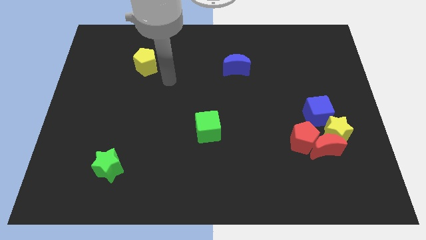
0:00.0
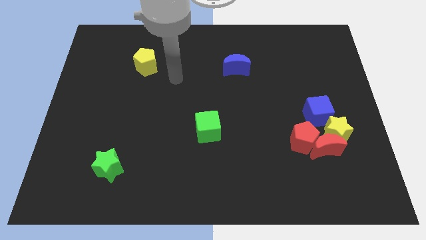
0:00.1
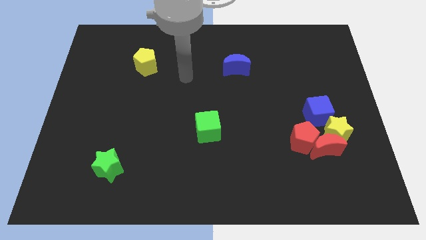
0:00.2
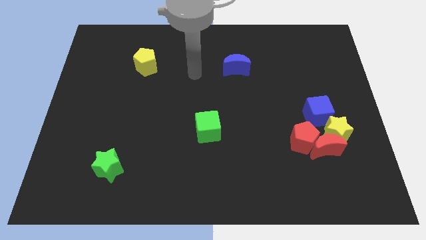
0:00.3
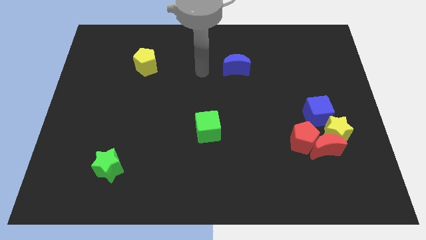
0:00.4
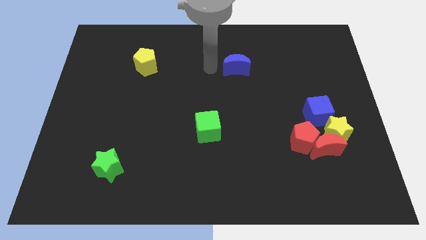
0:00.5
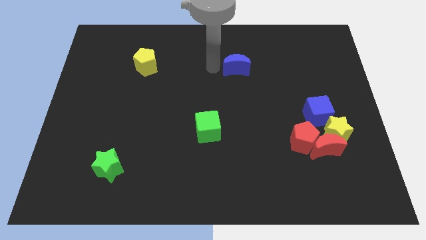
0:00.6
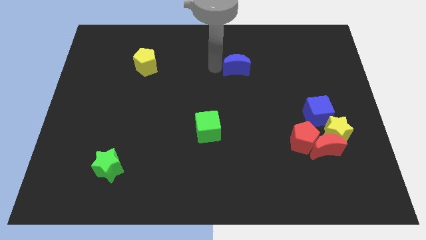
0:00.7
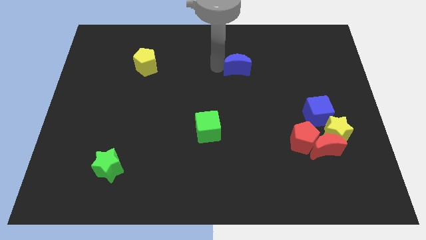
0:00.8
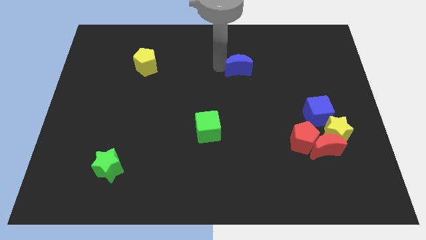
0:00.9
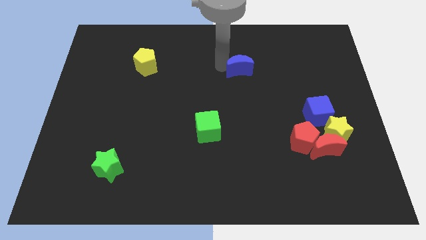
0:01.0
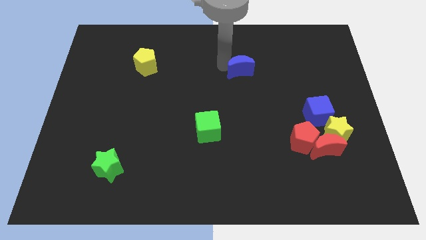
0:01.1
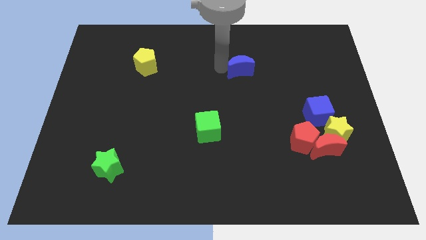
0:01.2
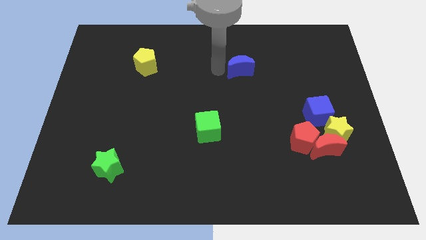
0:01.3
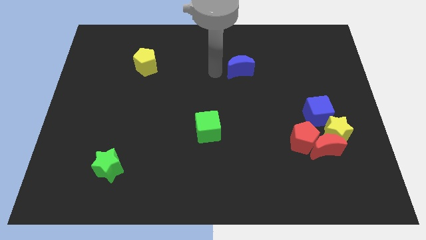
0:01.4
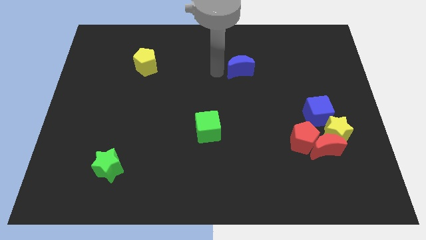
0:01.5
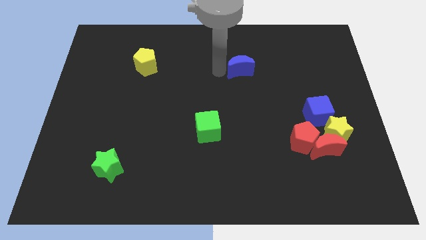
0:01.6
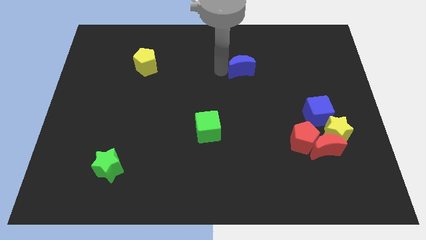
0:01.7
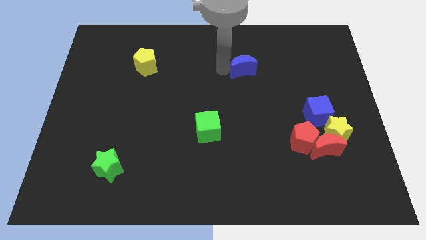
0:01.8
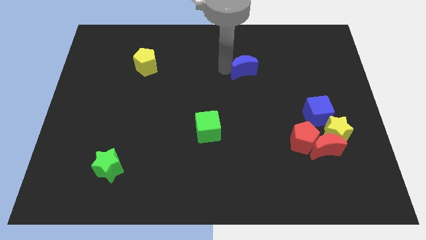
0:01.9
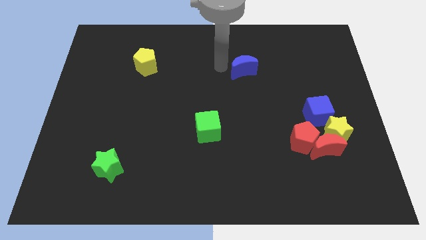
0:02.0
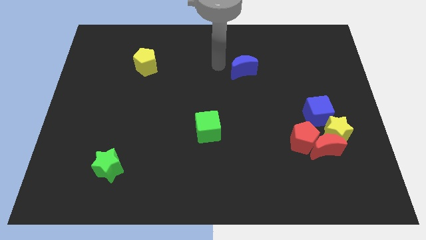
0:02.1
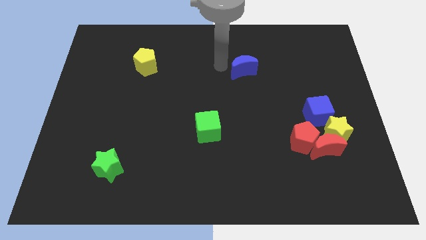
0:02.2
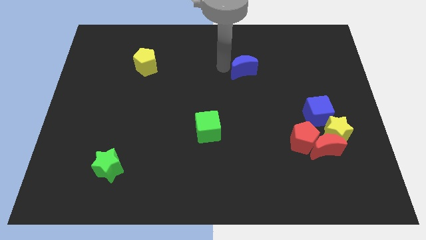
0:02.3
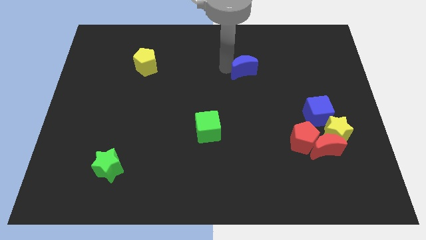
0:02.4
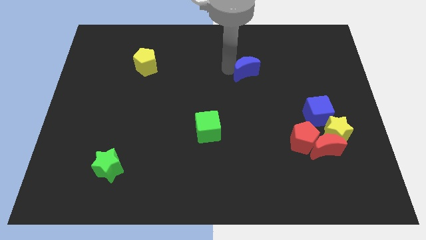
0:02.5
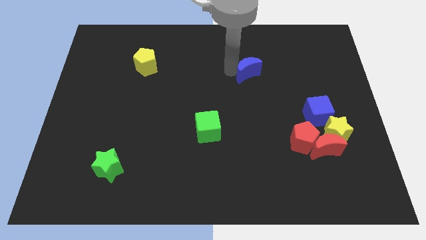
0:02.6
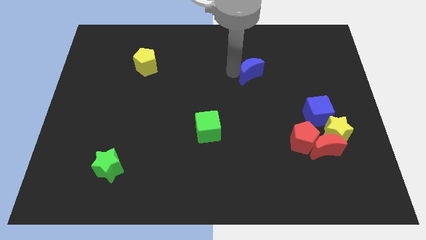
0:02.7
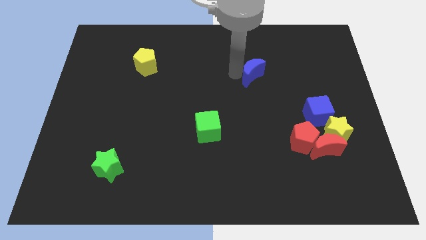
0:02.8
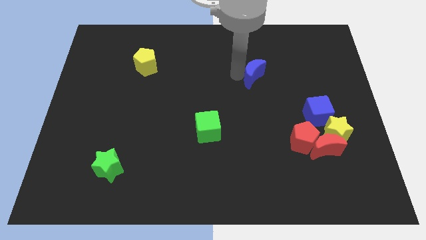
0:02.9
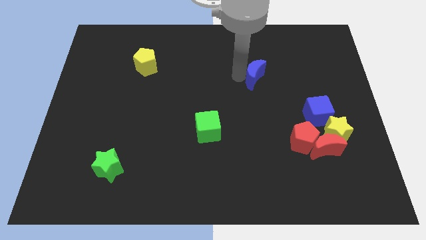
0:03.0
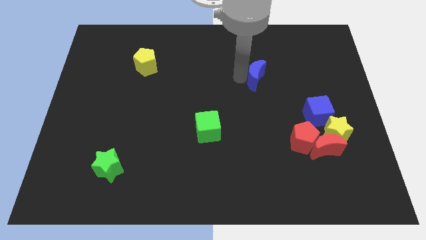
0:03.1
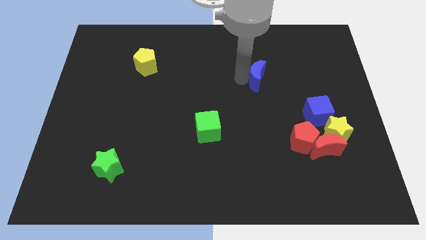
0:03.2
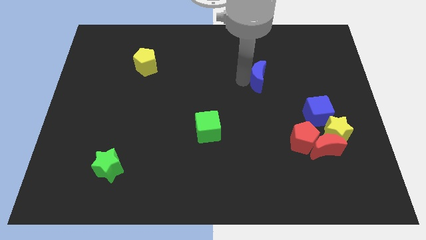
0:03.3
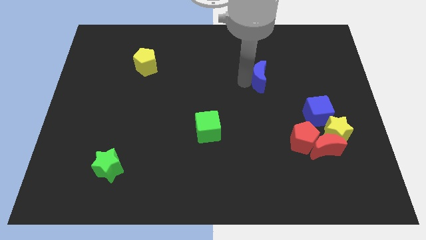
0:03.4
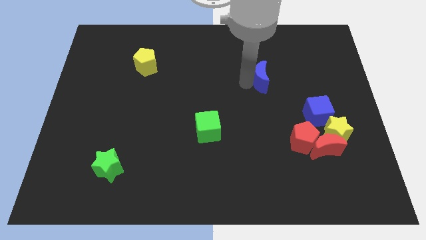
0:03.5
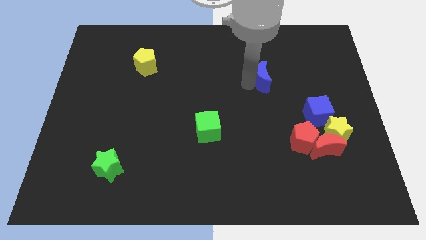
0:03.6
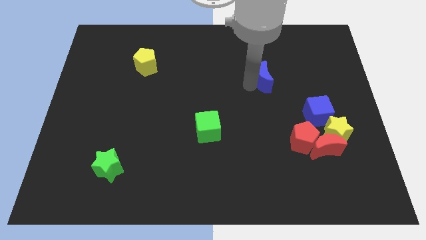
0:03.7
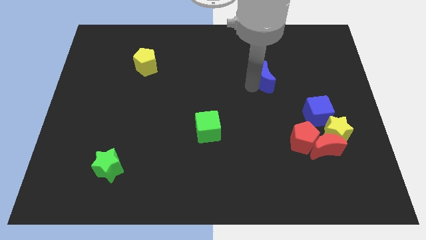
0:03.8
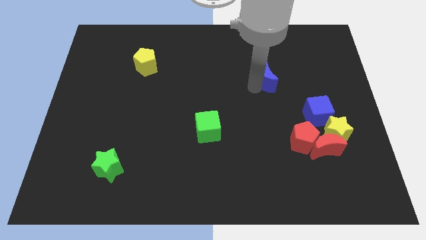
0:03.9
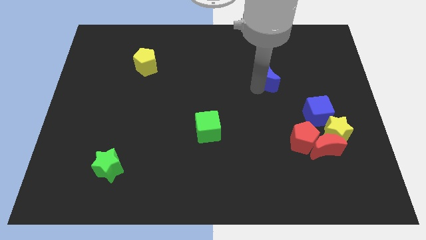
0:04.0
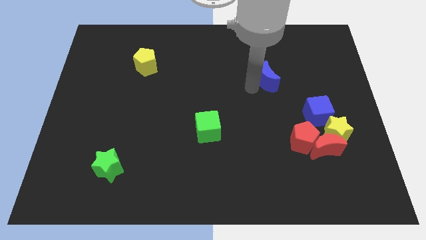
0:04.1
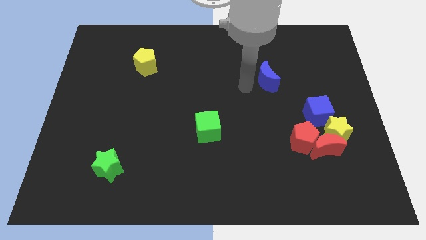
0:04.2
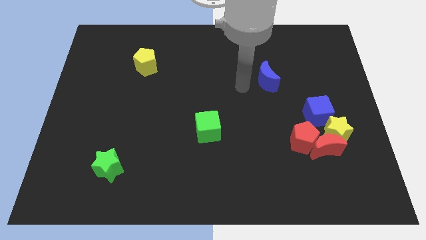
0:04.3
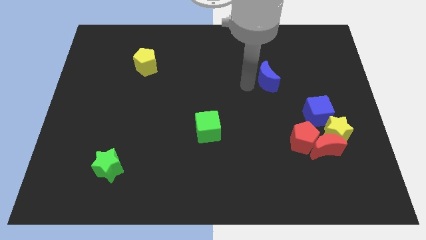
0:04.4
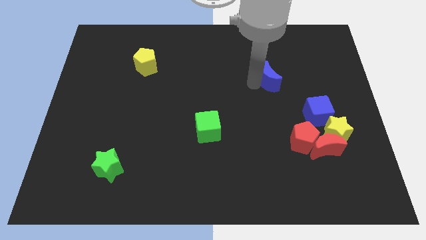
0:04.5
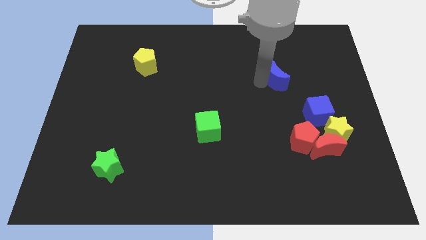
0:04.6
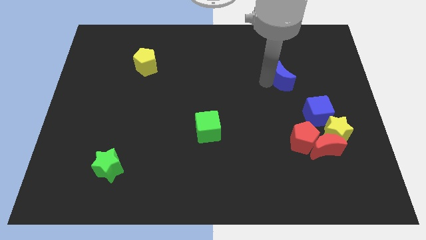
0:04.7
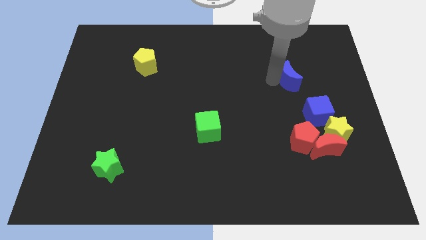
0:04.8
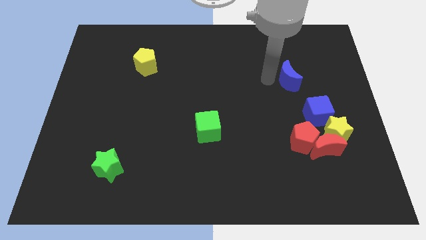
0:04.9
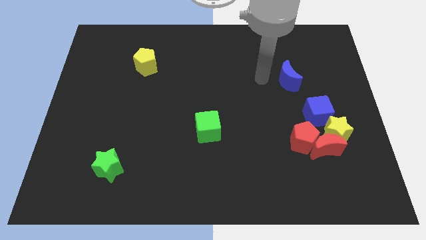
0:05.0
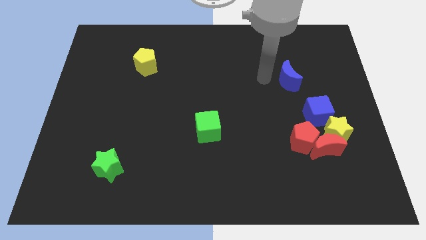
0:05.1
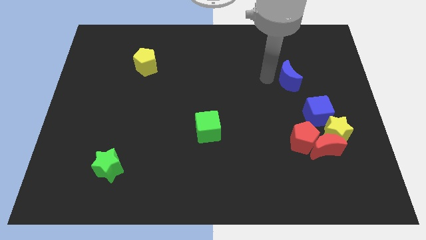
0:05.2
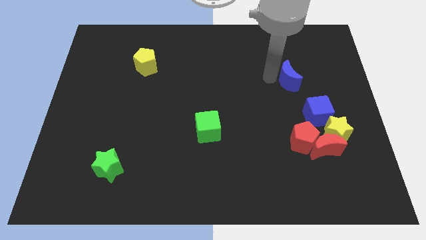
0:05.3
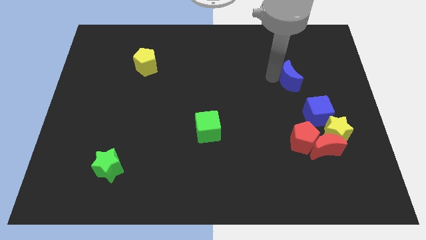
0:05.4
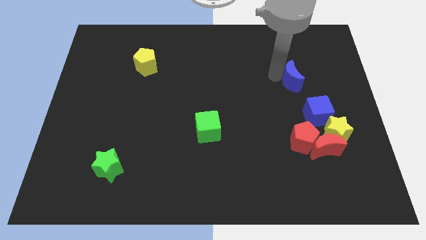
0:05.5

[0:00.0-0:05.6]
put the blue moon to the top side of the blue cube

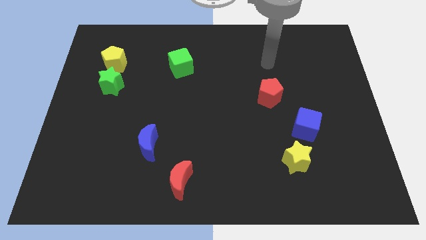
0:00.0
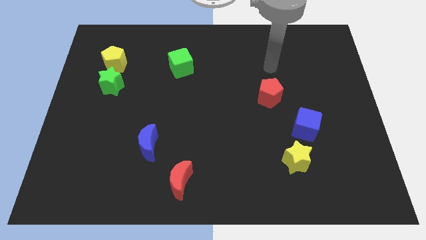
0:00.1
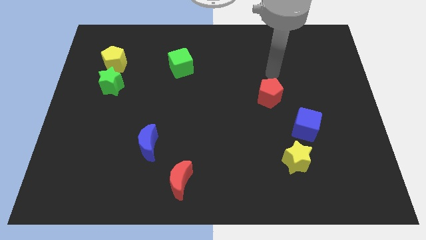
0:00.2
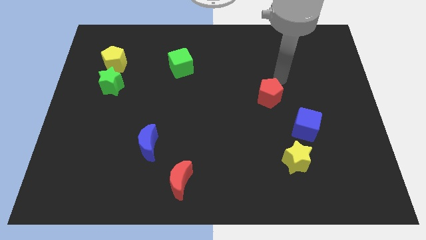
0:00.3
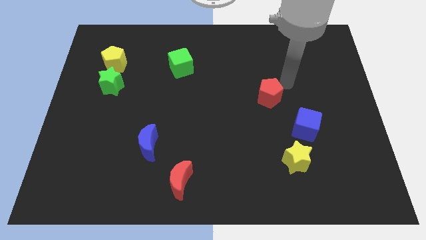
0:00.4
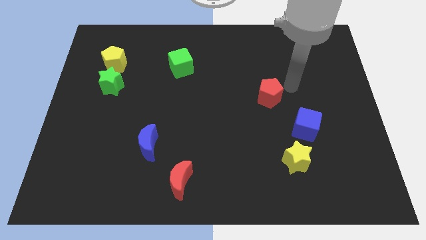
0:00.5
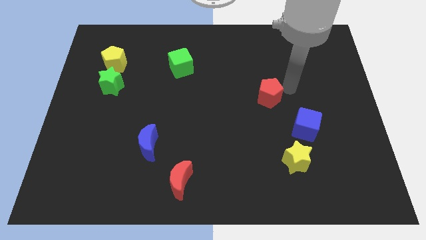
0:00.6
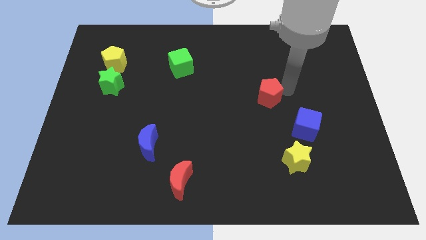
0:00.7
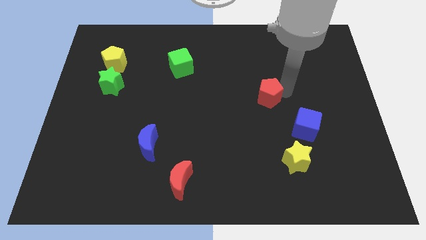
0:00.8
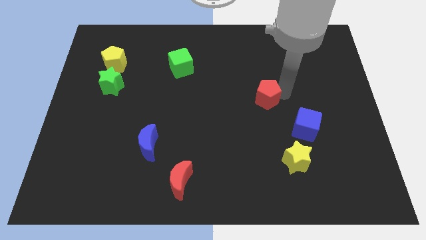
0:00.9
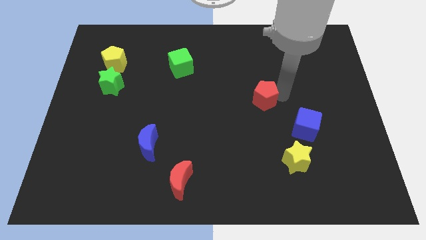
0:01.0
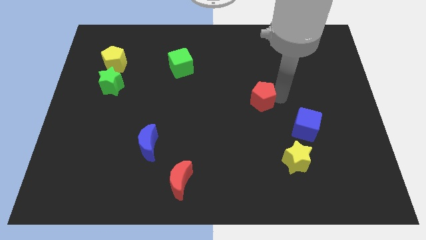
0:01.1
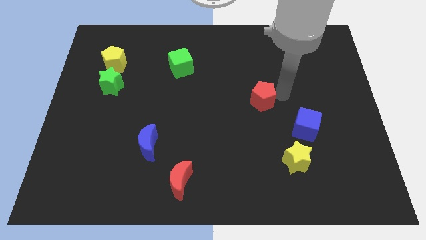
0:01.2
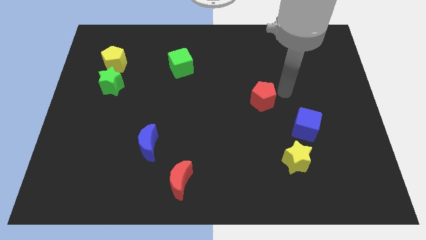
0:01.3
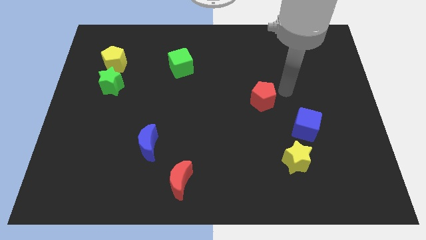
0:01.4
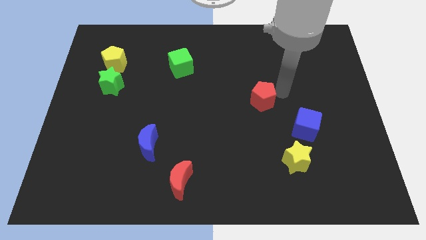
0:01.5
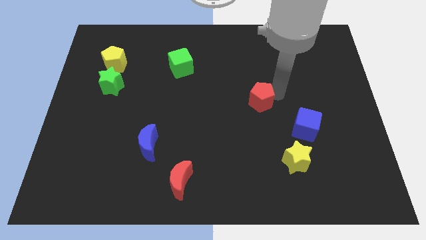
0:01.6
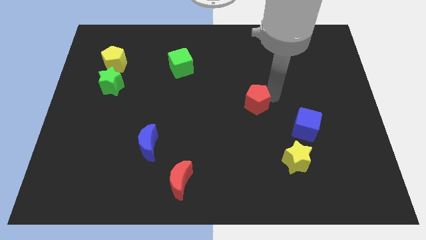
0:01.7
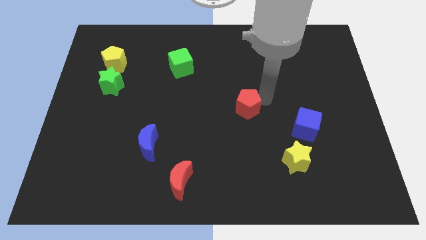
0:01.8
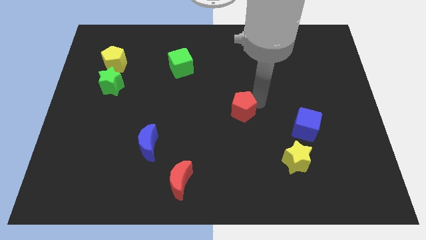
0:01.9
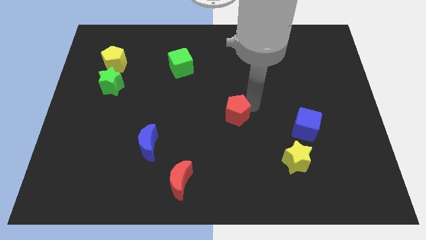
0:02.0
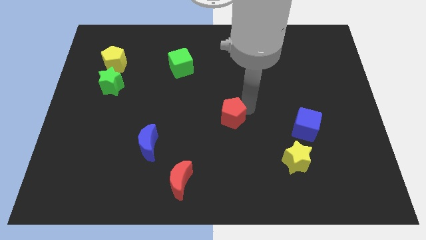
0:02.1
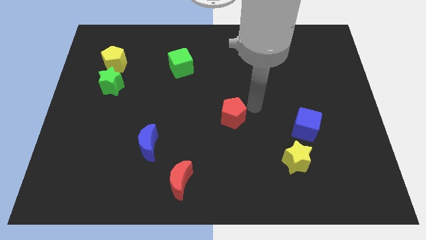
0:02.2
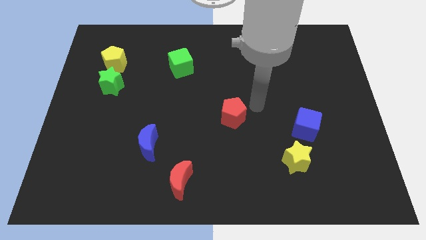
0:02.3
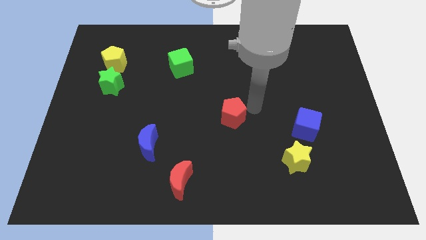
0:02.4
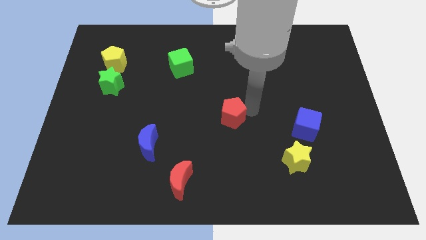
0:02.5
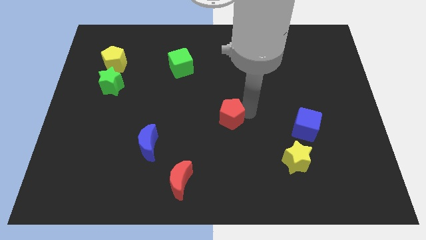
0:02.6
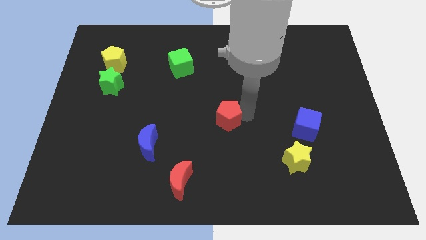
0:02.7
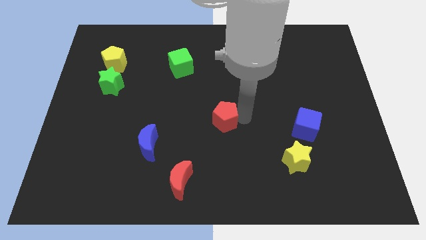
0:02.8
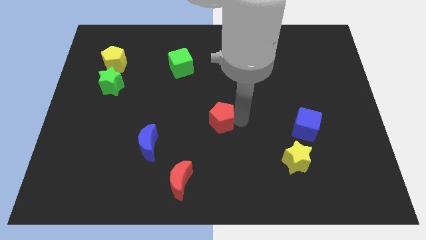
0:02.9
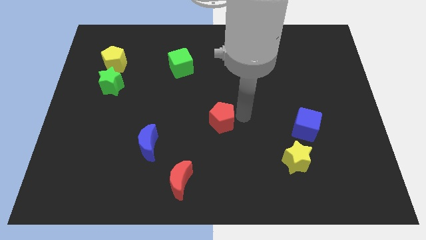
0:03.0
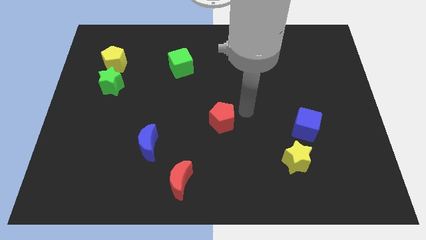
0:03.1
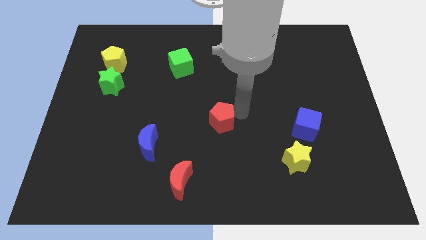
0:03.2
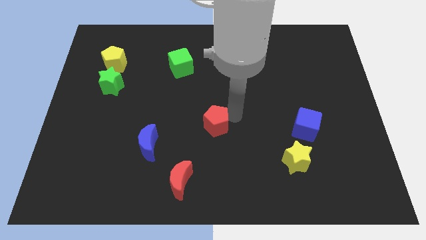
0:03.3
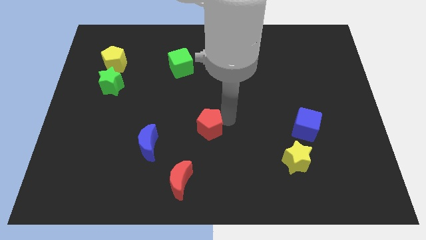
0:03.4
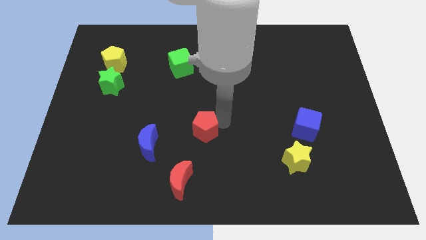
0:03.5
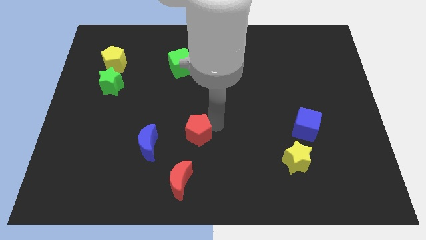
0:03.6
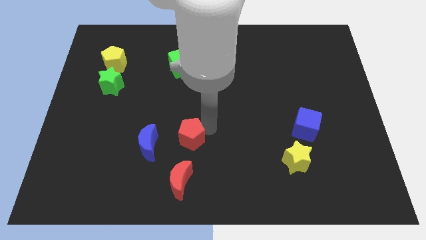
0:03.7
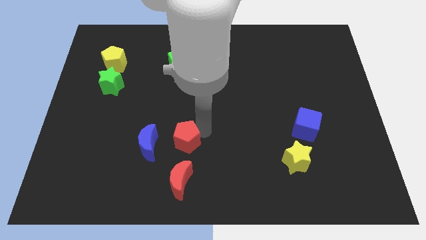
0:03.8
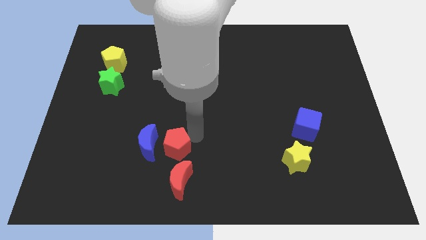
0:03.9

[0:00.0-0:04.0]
slide the red pentagon diagonally up and to the left of the red moon
